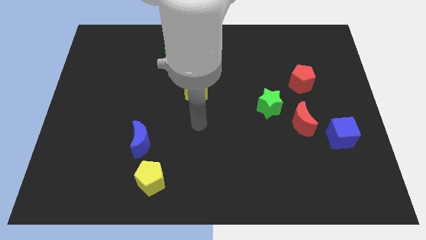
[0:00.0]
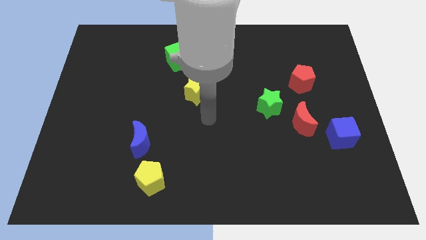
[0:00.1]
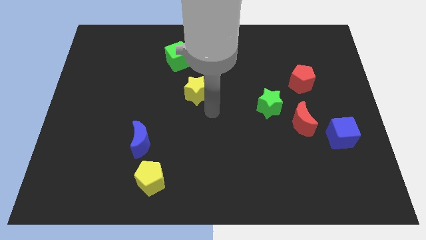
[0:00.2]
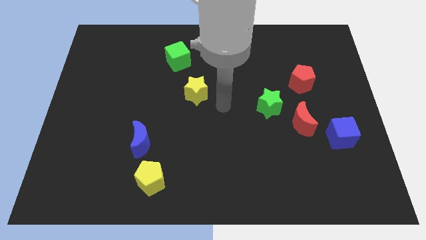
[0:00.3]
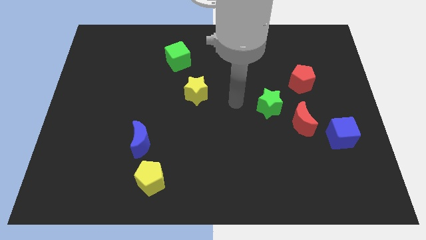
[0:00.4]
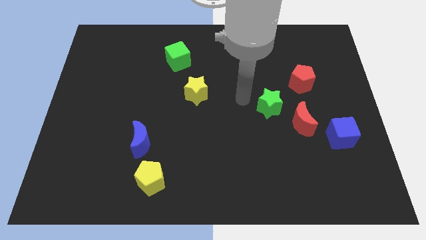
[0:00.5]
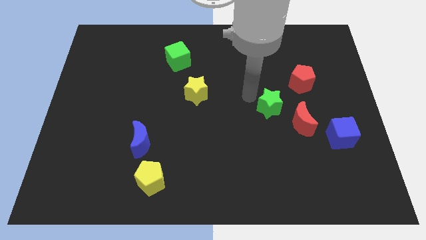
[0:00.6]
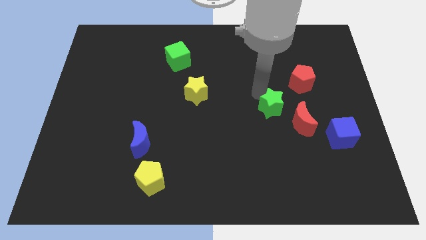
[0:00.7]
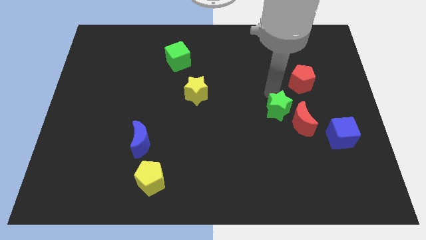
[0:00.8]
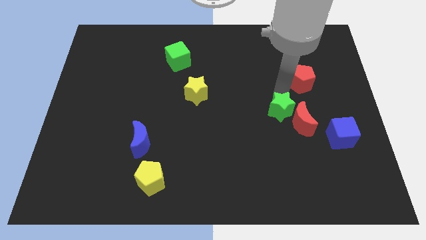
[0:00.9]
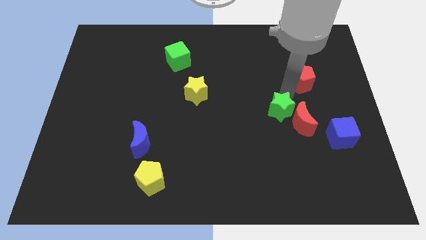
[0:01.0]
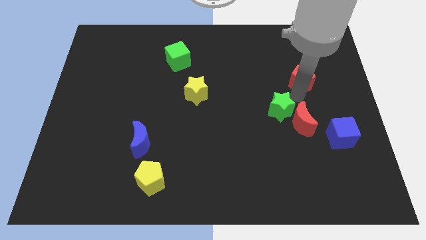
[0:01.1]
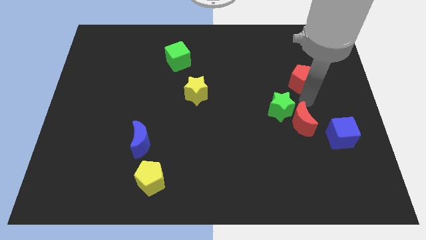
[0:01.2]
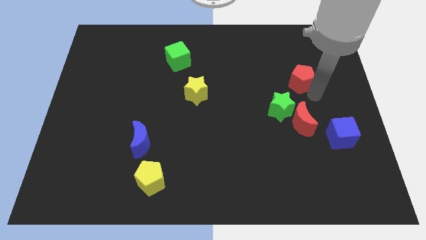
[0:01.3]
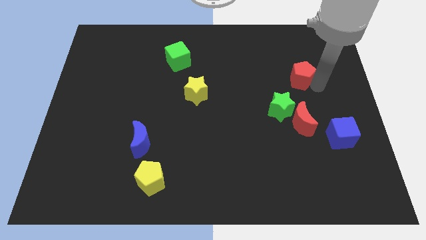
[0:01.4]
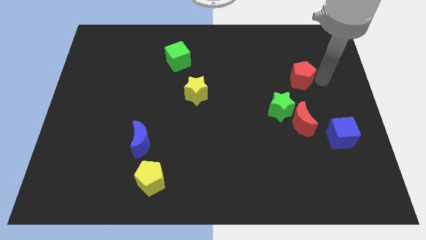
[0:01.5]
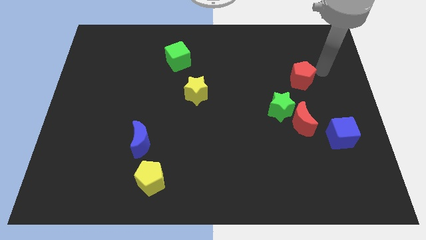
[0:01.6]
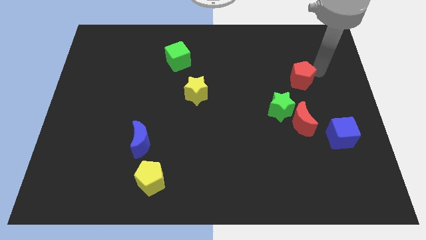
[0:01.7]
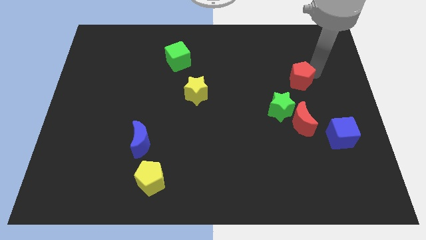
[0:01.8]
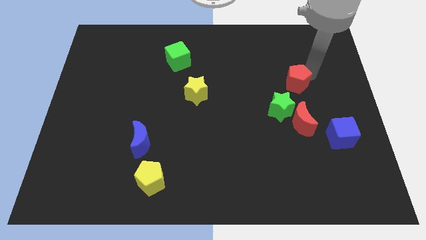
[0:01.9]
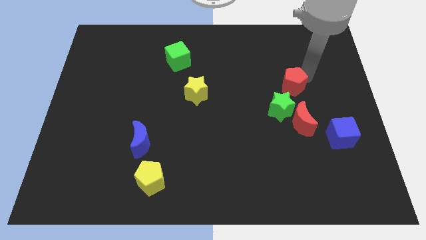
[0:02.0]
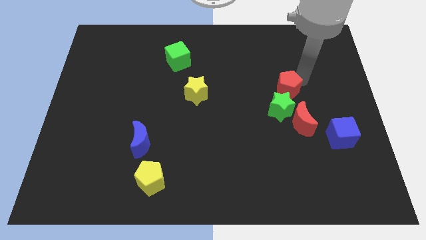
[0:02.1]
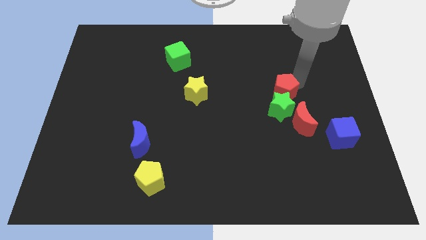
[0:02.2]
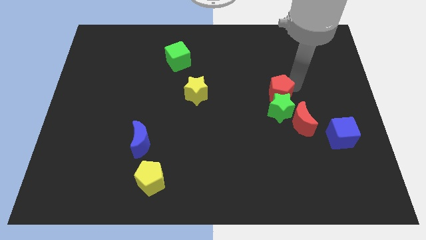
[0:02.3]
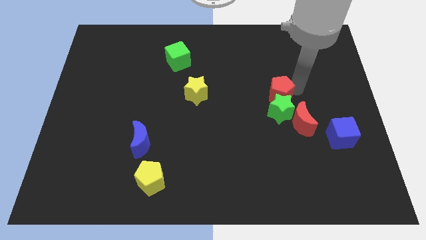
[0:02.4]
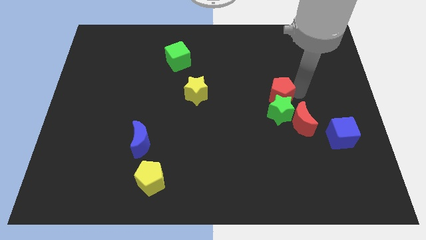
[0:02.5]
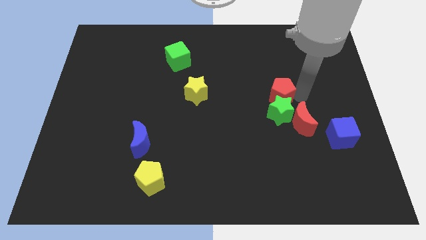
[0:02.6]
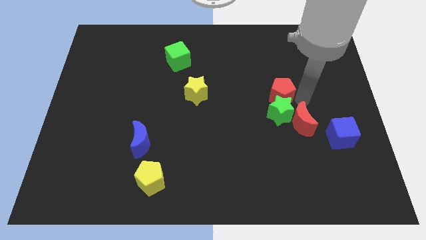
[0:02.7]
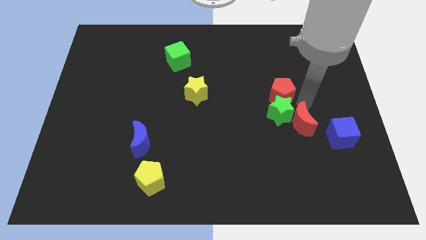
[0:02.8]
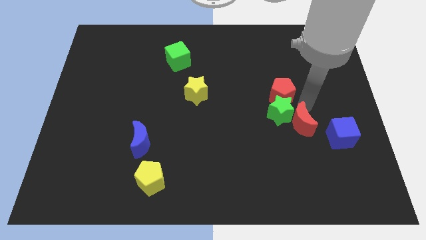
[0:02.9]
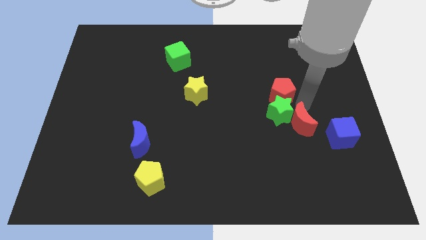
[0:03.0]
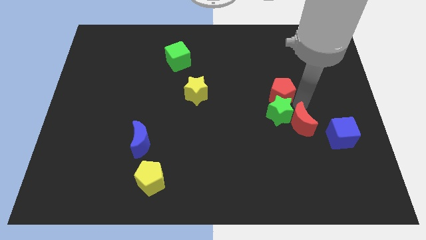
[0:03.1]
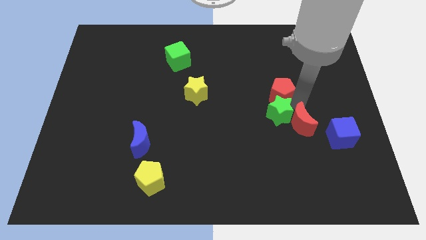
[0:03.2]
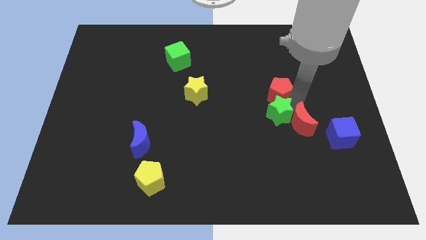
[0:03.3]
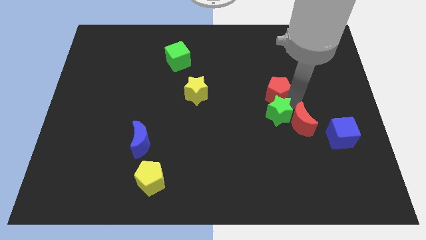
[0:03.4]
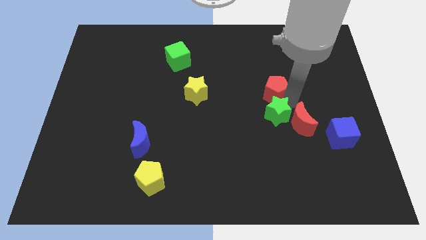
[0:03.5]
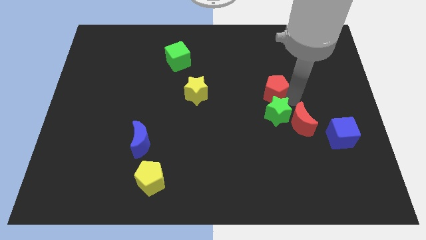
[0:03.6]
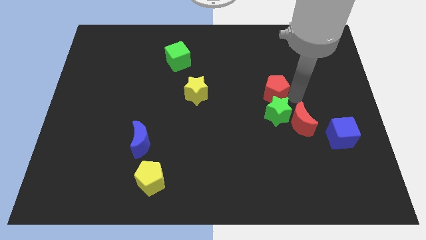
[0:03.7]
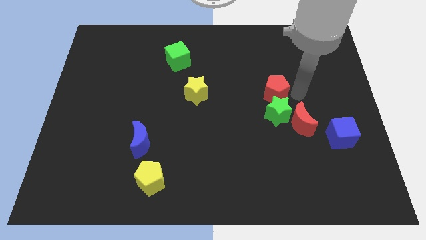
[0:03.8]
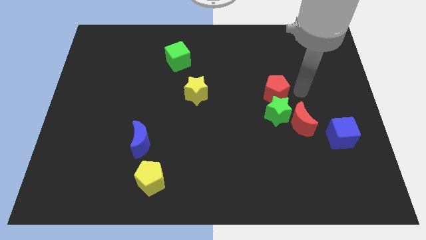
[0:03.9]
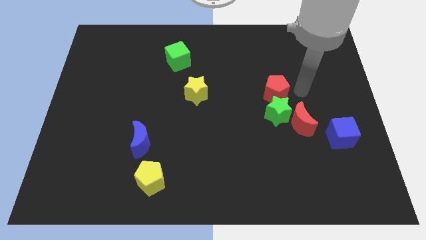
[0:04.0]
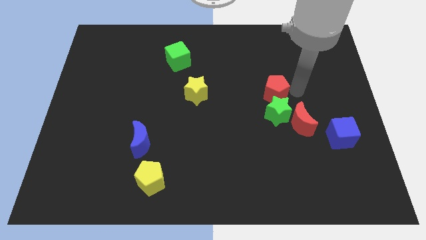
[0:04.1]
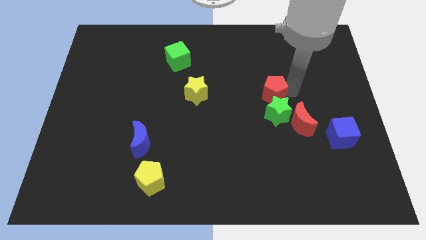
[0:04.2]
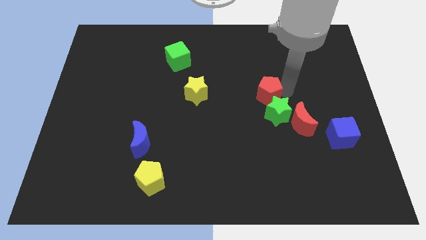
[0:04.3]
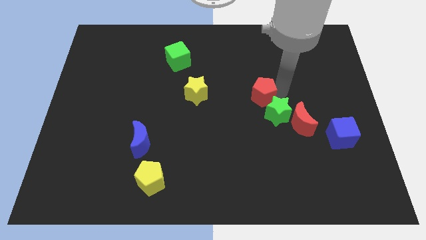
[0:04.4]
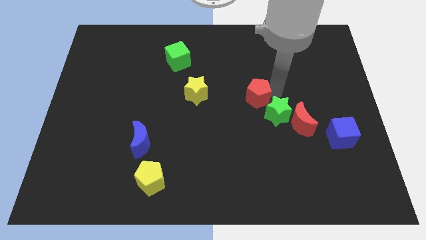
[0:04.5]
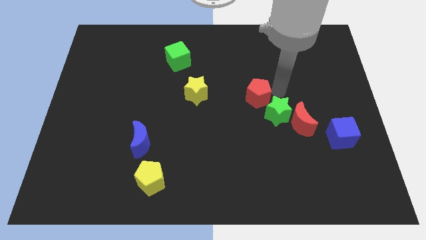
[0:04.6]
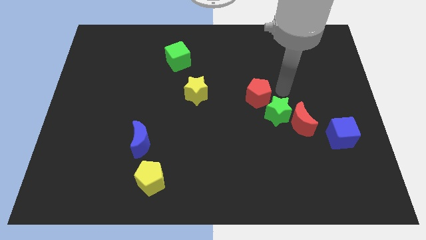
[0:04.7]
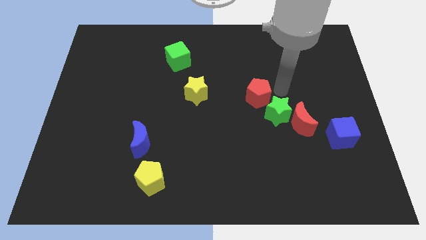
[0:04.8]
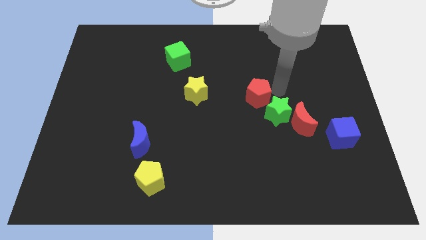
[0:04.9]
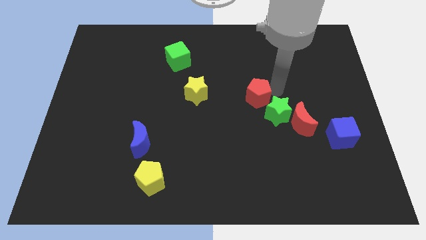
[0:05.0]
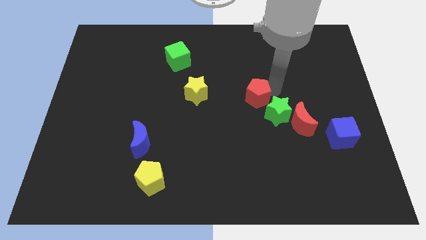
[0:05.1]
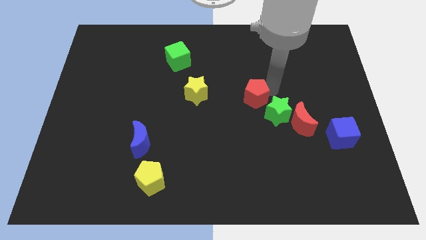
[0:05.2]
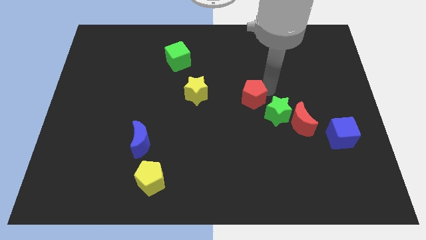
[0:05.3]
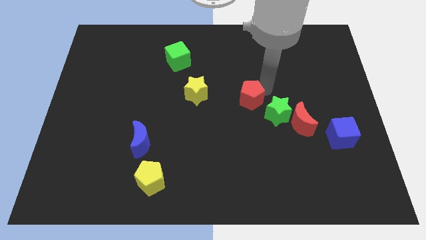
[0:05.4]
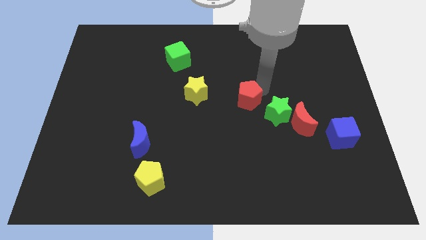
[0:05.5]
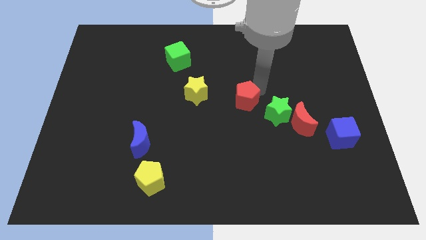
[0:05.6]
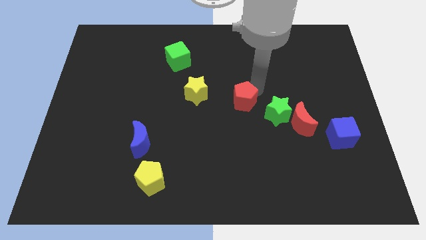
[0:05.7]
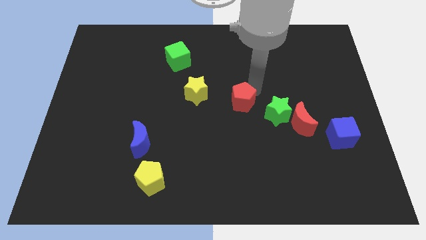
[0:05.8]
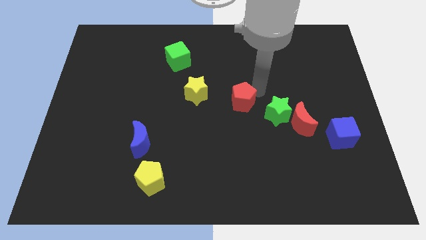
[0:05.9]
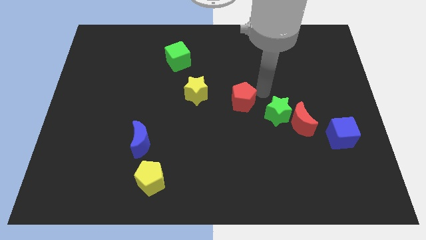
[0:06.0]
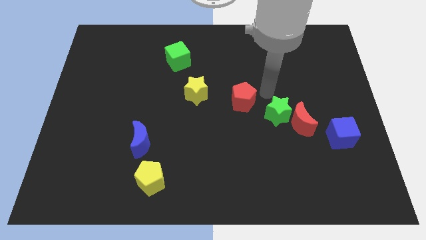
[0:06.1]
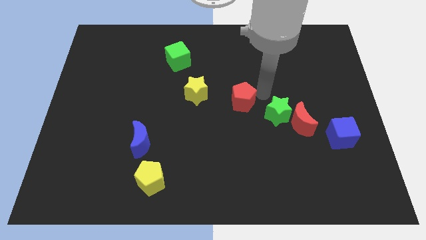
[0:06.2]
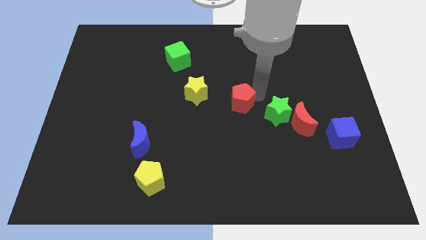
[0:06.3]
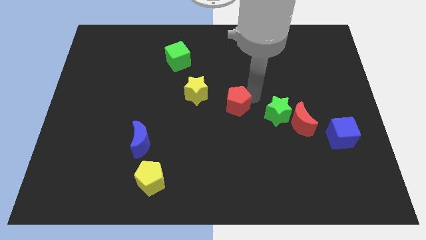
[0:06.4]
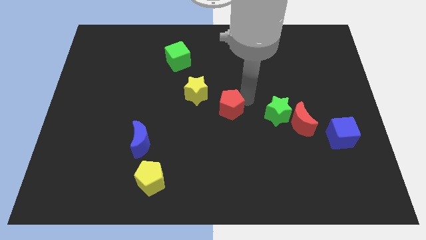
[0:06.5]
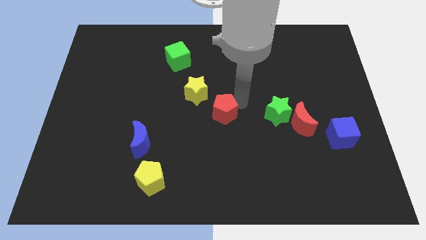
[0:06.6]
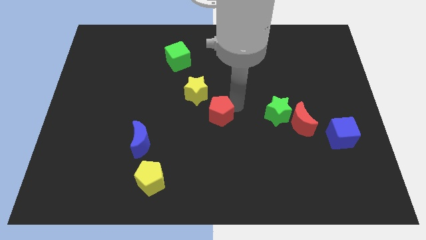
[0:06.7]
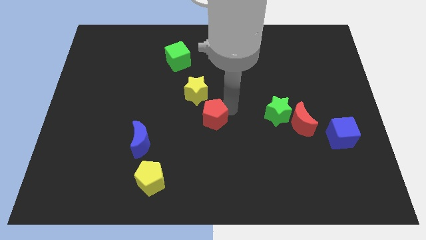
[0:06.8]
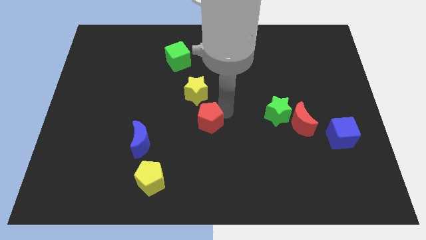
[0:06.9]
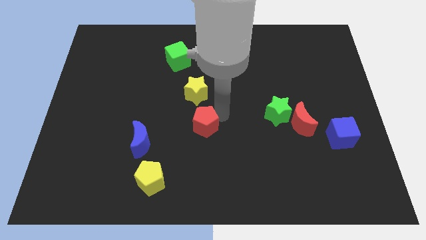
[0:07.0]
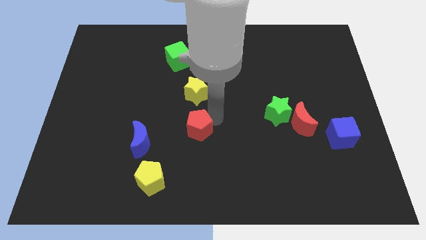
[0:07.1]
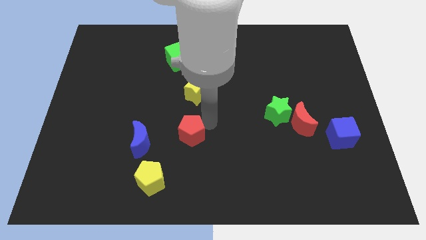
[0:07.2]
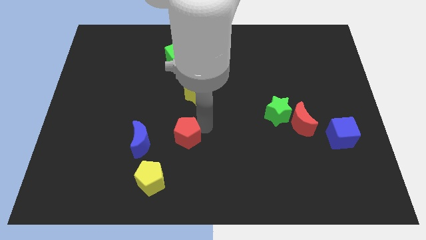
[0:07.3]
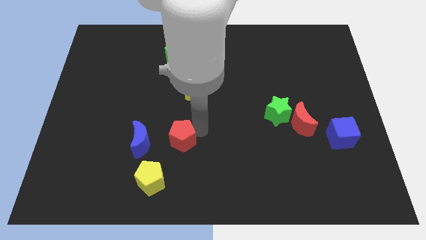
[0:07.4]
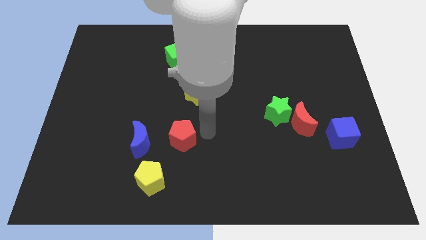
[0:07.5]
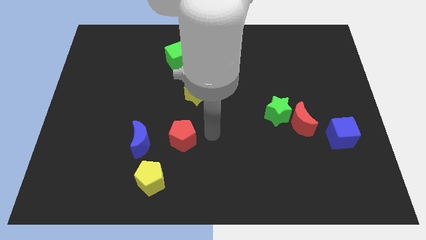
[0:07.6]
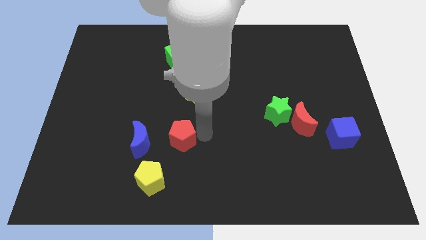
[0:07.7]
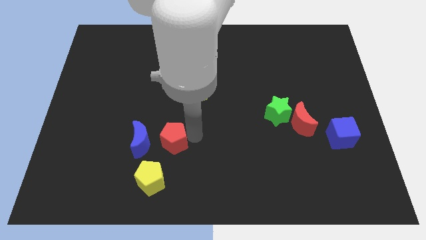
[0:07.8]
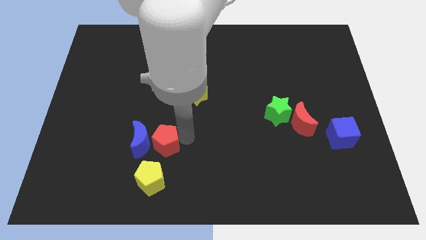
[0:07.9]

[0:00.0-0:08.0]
move the red pentagon towards the blue moon
